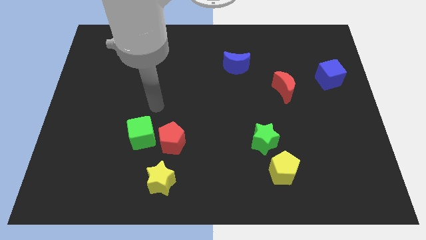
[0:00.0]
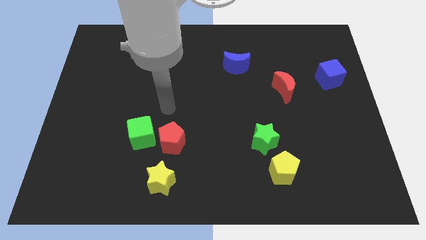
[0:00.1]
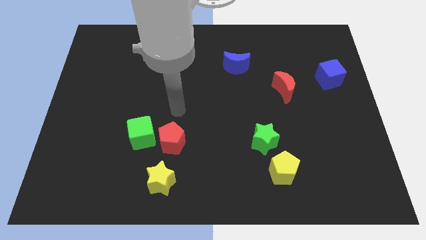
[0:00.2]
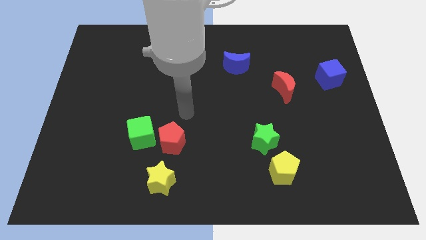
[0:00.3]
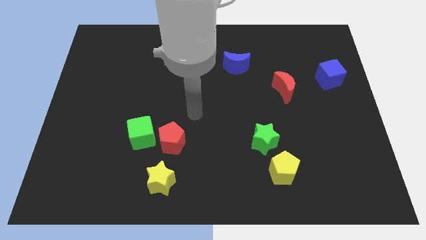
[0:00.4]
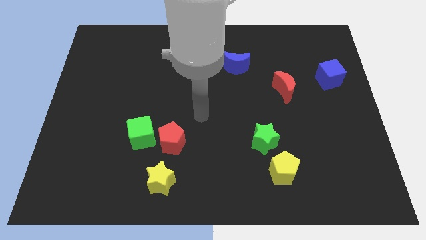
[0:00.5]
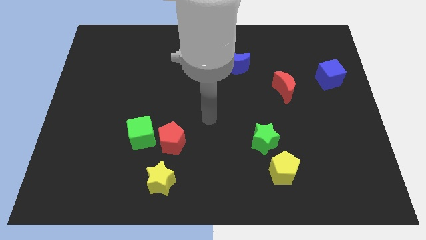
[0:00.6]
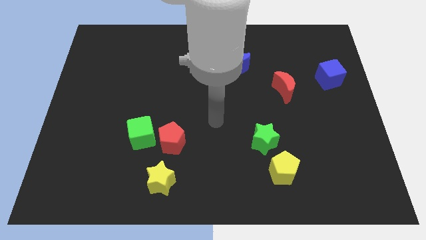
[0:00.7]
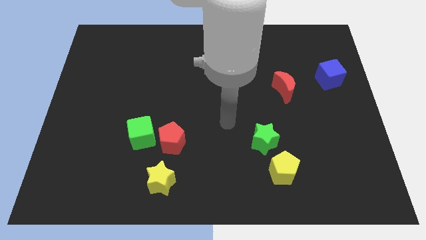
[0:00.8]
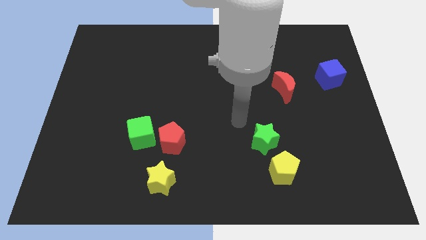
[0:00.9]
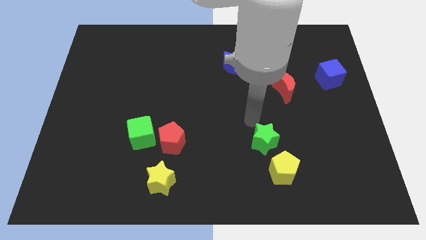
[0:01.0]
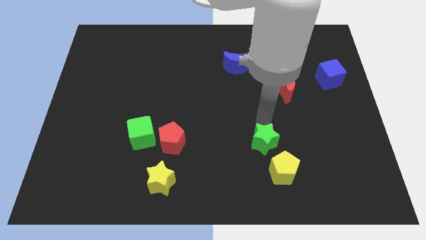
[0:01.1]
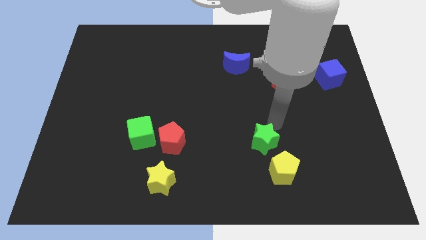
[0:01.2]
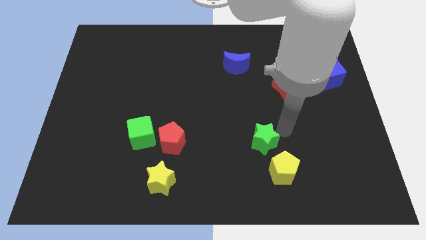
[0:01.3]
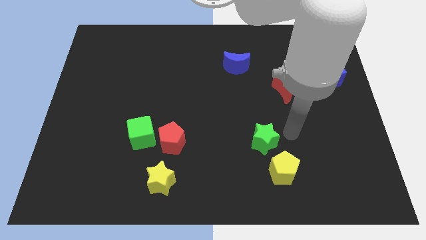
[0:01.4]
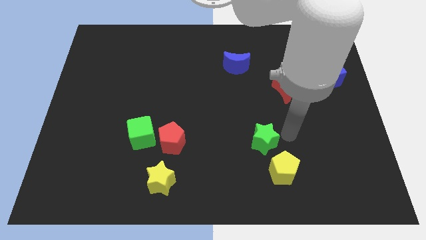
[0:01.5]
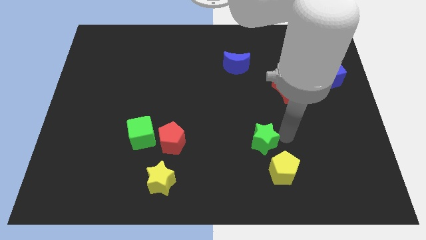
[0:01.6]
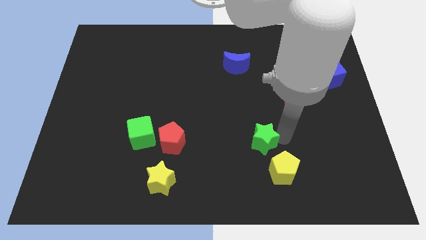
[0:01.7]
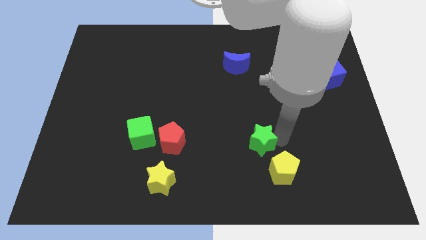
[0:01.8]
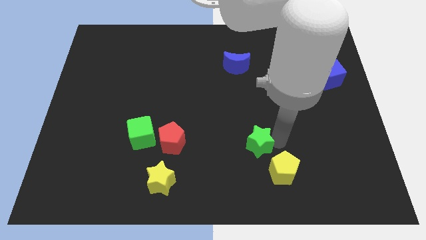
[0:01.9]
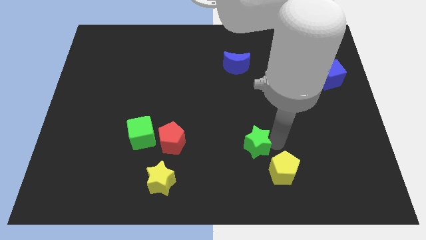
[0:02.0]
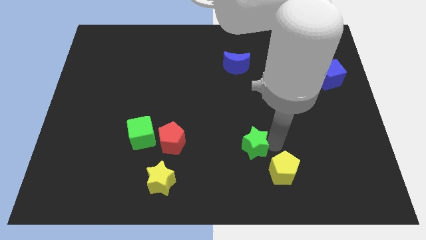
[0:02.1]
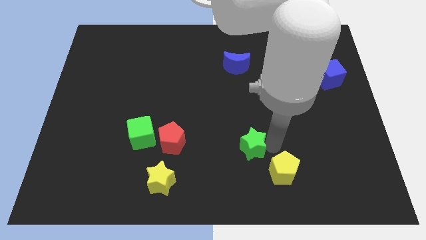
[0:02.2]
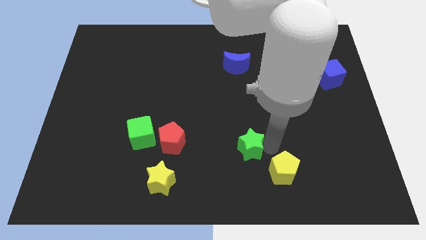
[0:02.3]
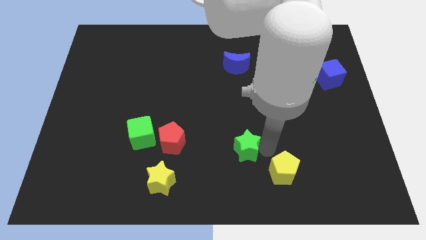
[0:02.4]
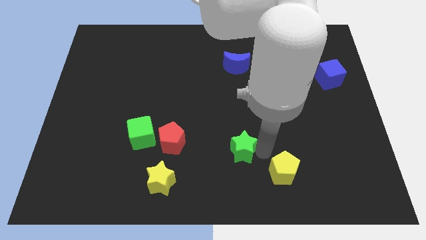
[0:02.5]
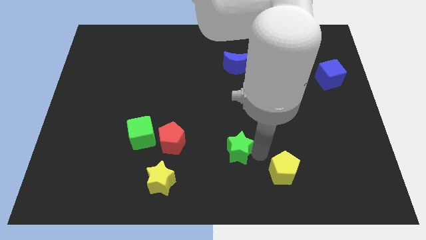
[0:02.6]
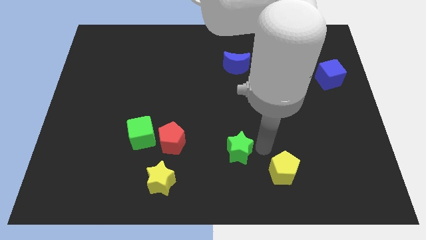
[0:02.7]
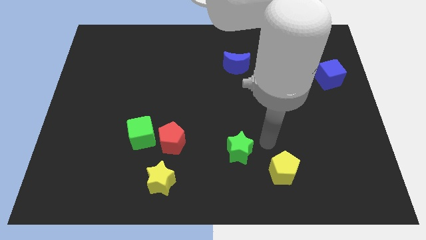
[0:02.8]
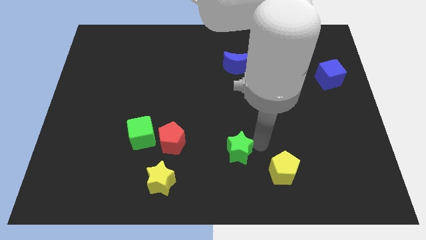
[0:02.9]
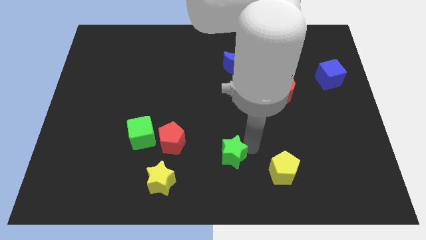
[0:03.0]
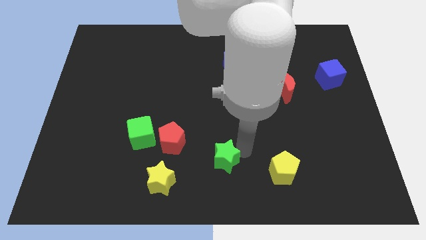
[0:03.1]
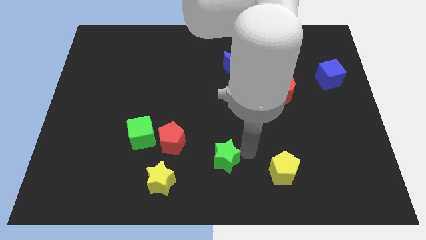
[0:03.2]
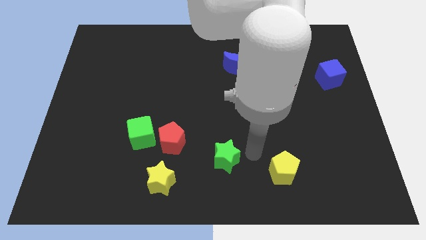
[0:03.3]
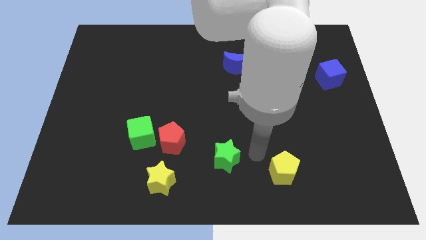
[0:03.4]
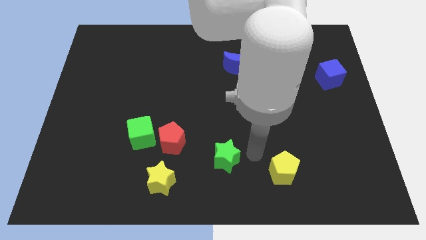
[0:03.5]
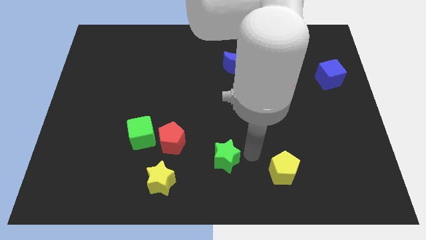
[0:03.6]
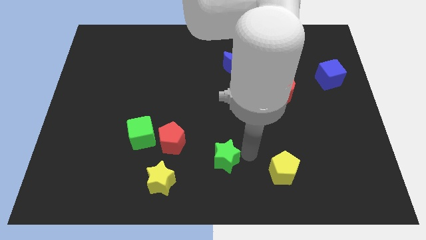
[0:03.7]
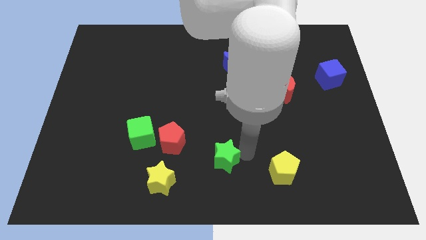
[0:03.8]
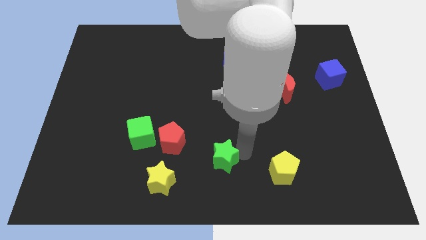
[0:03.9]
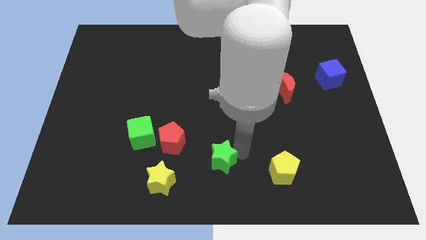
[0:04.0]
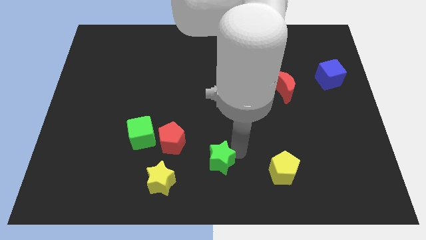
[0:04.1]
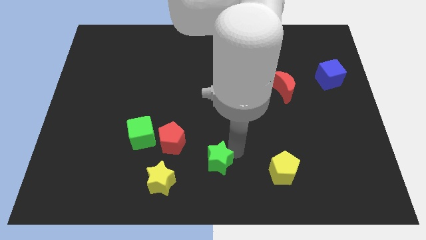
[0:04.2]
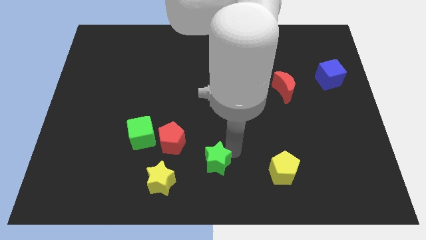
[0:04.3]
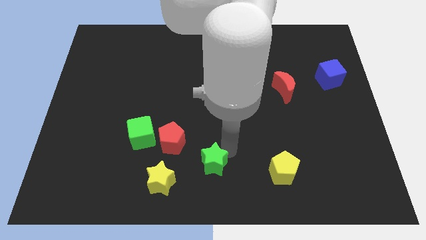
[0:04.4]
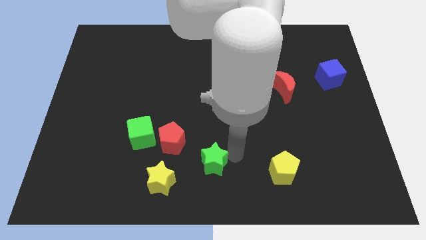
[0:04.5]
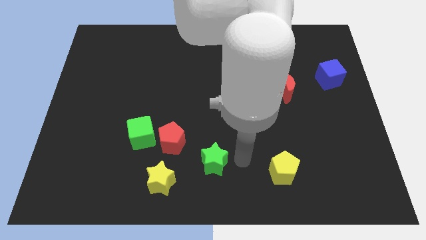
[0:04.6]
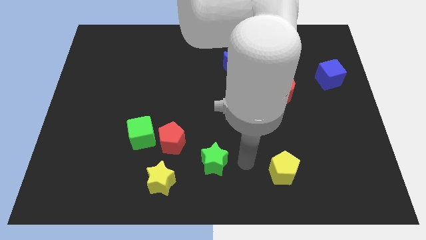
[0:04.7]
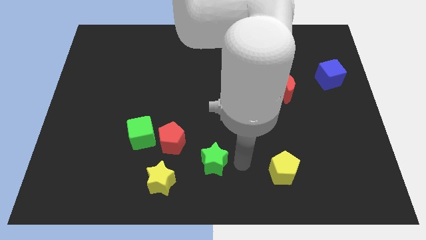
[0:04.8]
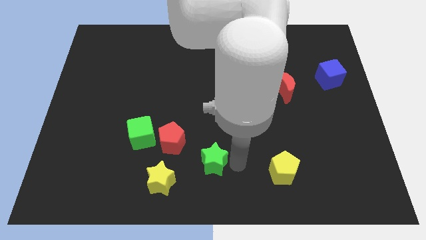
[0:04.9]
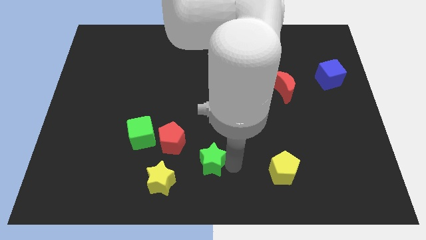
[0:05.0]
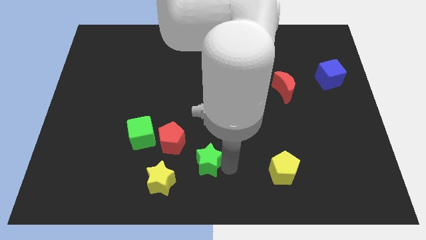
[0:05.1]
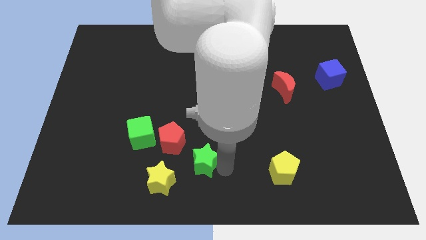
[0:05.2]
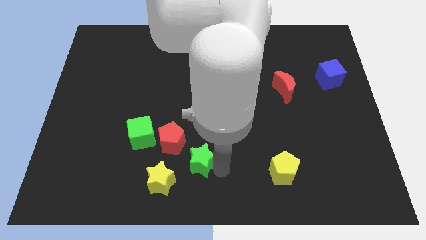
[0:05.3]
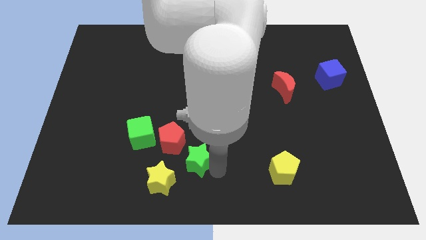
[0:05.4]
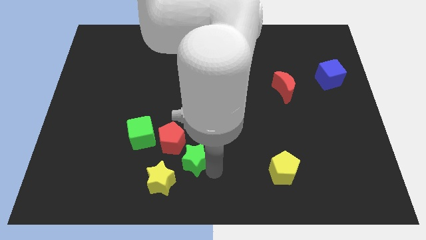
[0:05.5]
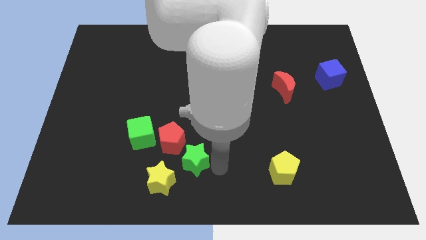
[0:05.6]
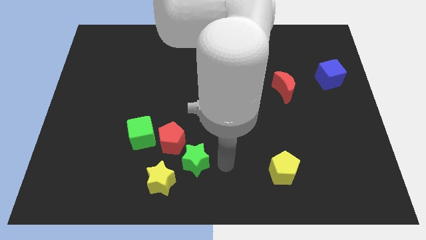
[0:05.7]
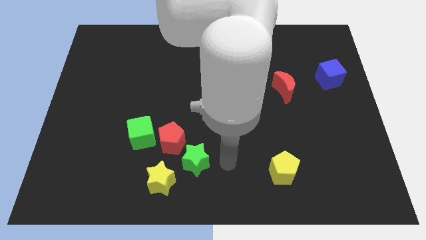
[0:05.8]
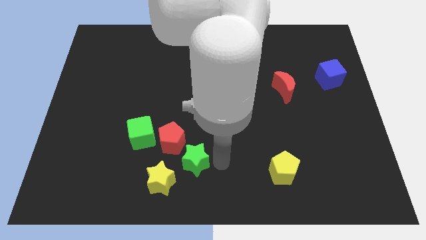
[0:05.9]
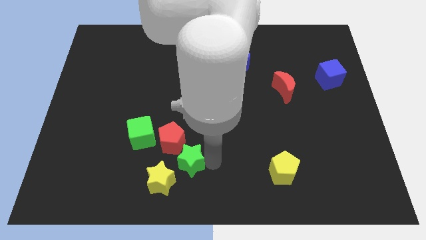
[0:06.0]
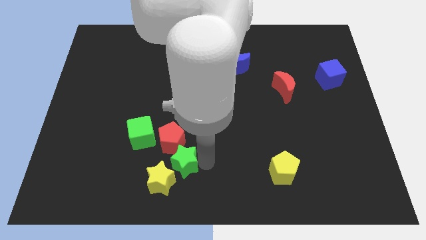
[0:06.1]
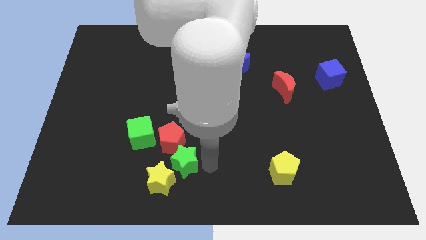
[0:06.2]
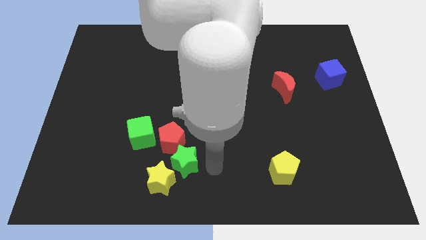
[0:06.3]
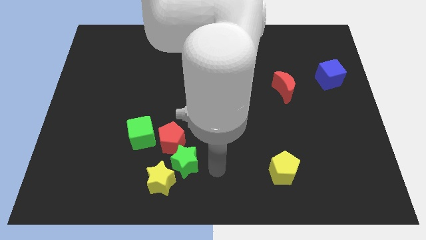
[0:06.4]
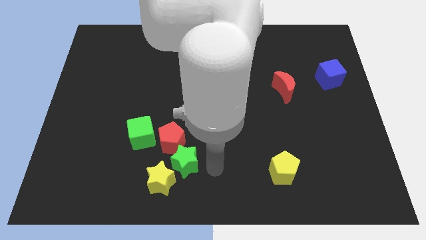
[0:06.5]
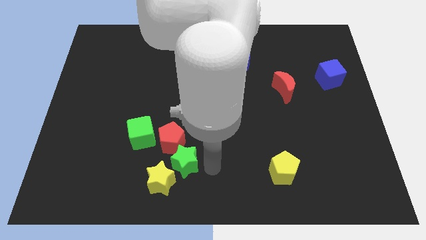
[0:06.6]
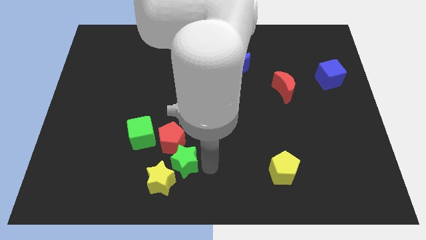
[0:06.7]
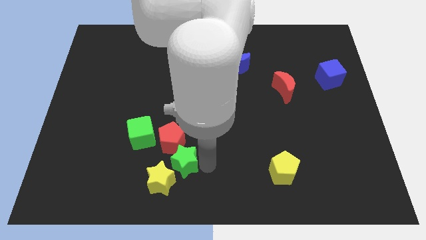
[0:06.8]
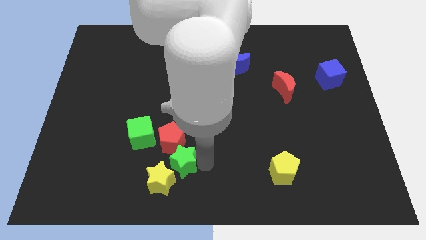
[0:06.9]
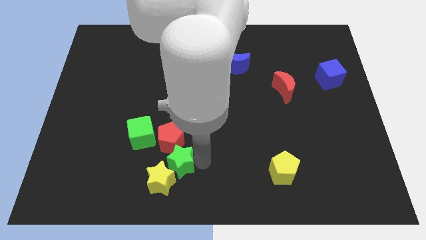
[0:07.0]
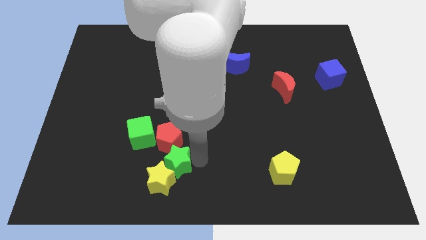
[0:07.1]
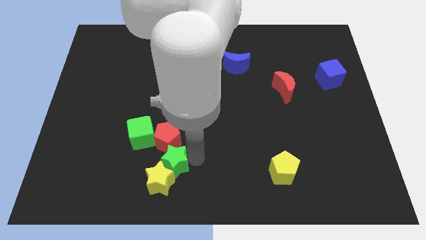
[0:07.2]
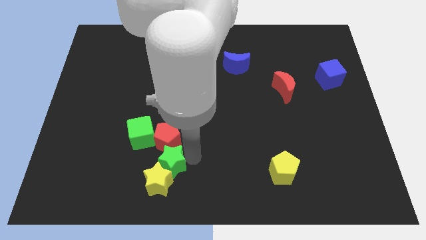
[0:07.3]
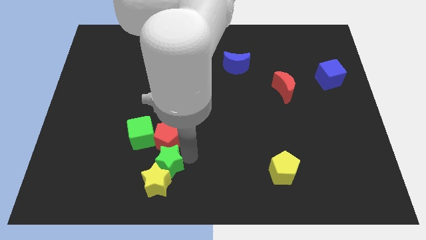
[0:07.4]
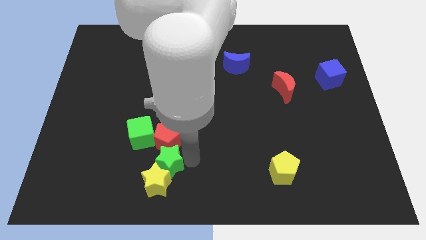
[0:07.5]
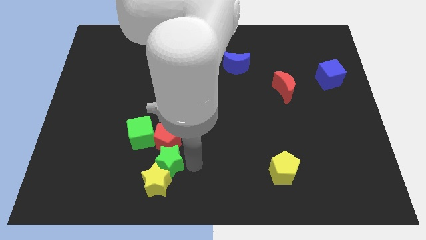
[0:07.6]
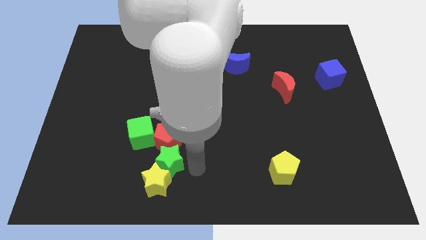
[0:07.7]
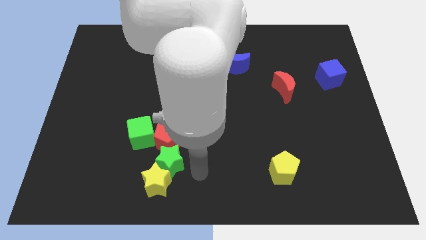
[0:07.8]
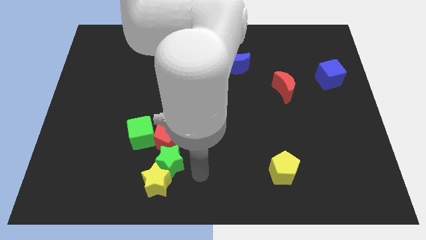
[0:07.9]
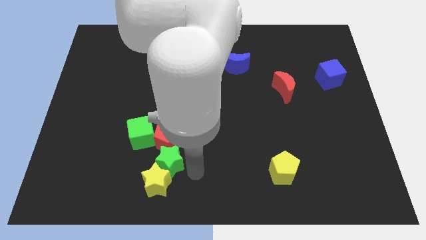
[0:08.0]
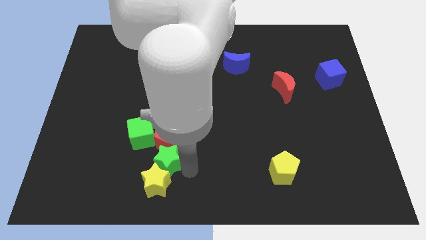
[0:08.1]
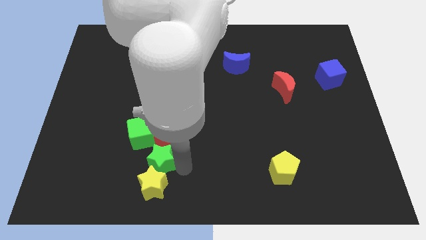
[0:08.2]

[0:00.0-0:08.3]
push the green star to the left
